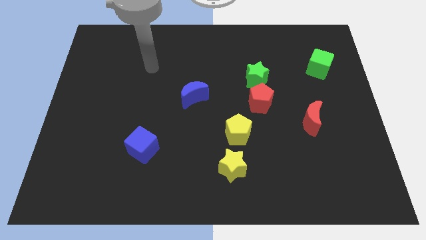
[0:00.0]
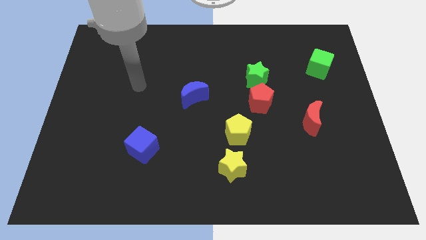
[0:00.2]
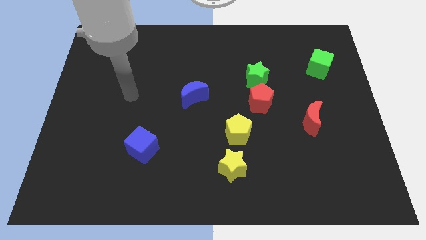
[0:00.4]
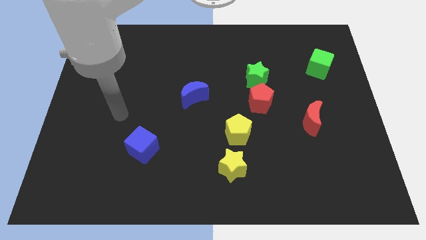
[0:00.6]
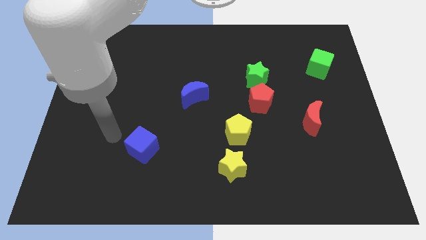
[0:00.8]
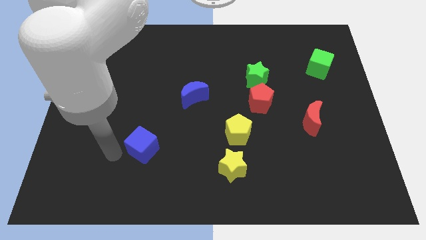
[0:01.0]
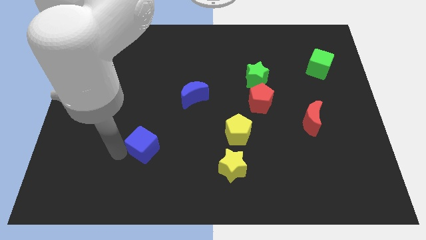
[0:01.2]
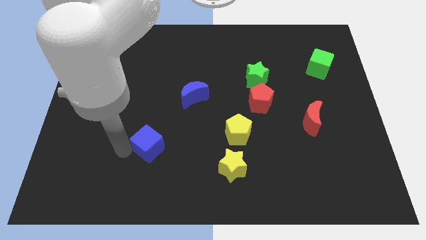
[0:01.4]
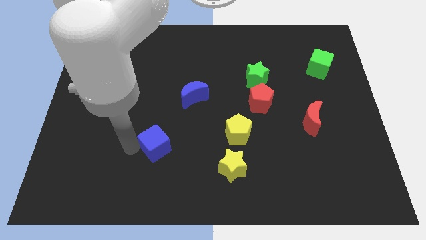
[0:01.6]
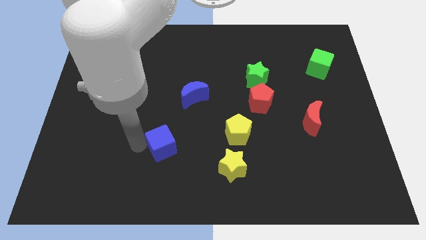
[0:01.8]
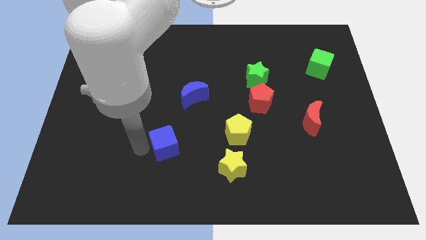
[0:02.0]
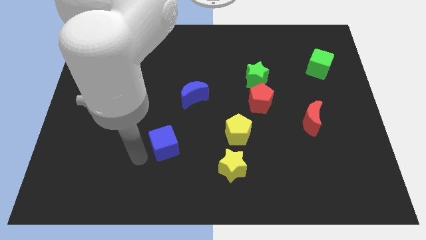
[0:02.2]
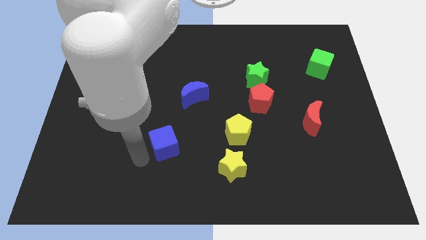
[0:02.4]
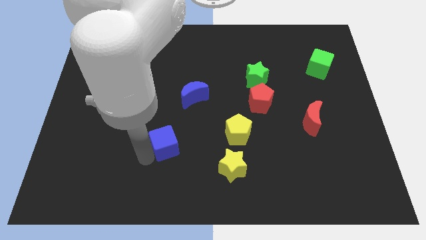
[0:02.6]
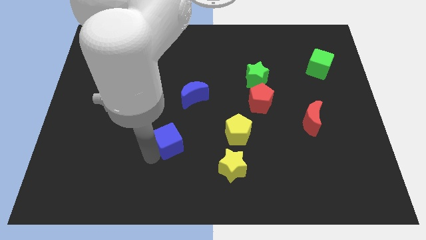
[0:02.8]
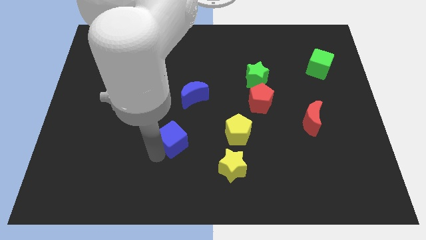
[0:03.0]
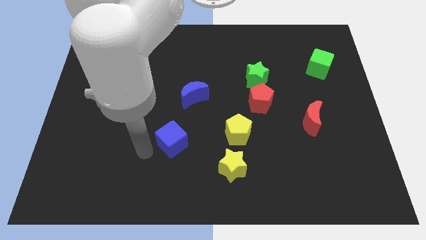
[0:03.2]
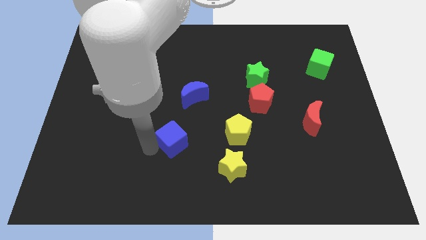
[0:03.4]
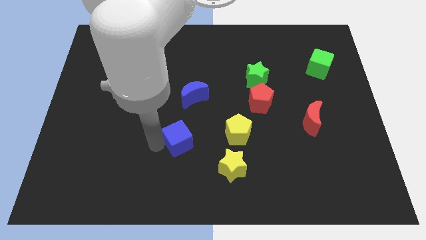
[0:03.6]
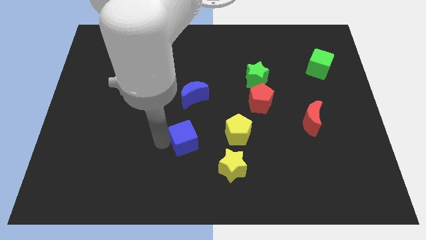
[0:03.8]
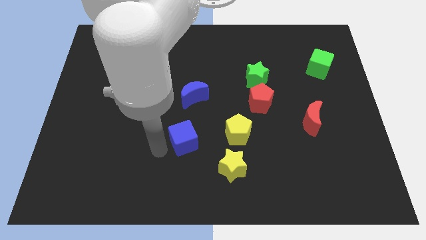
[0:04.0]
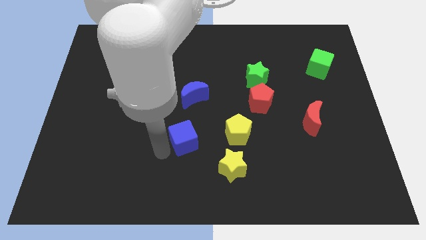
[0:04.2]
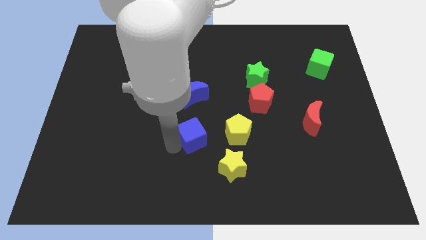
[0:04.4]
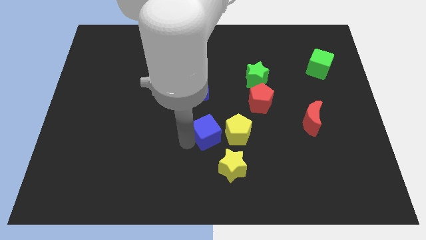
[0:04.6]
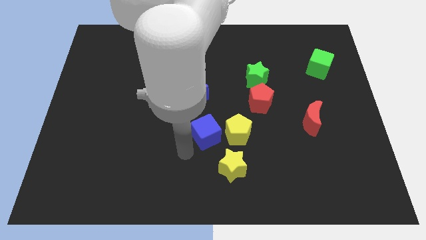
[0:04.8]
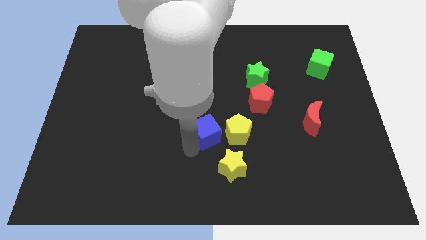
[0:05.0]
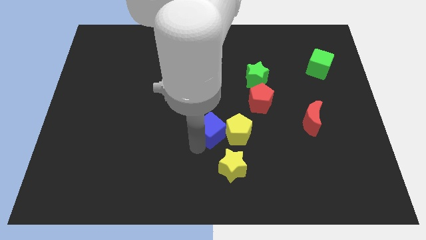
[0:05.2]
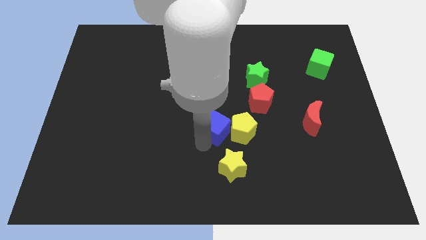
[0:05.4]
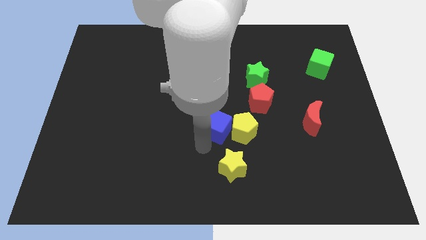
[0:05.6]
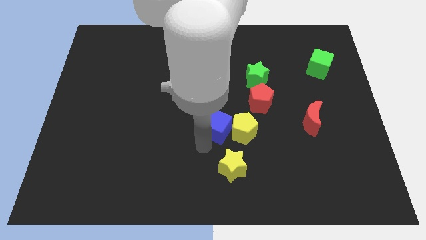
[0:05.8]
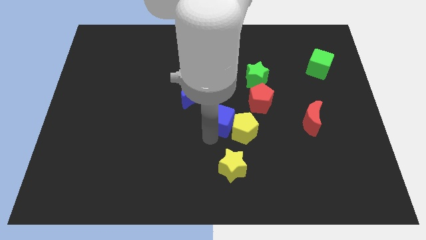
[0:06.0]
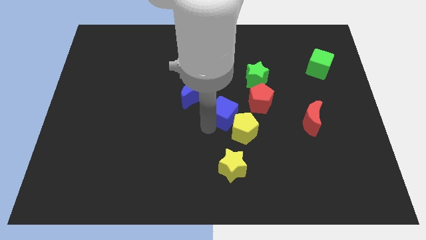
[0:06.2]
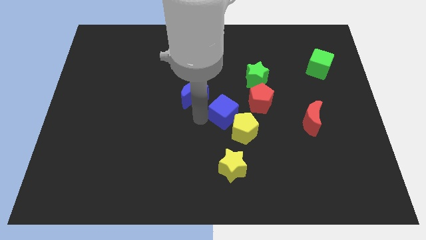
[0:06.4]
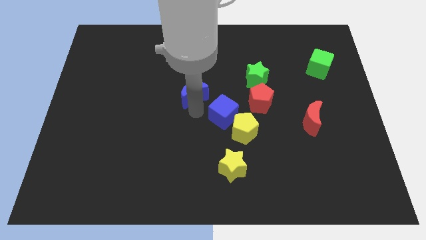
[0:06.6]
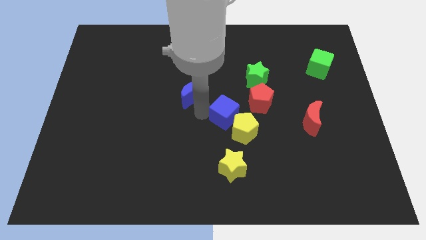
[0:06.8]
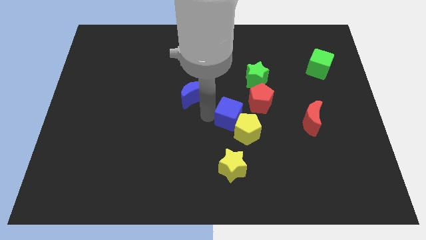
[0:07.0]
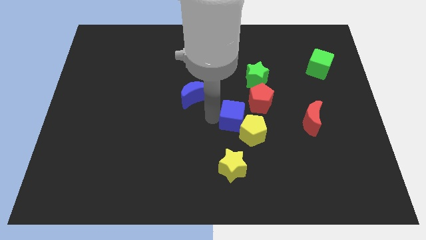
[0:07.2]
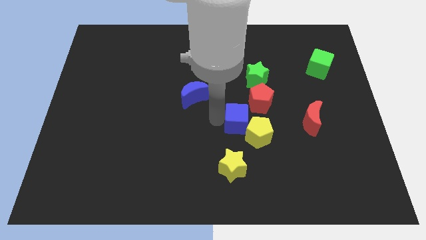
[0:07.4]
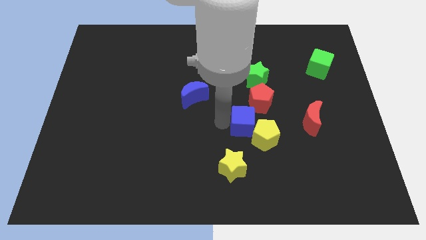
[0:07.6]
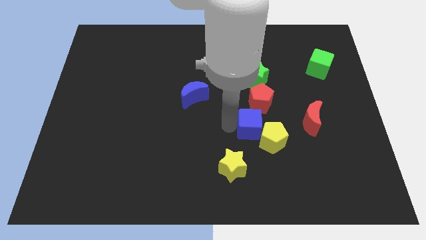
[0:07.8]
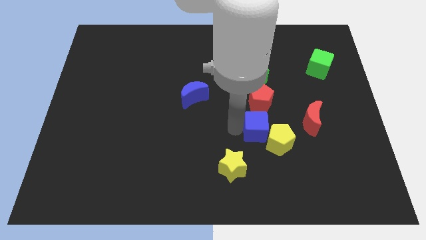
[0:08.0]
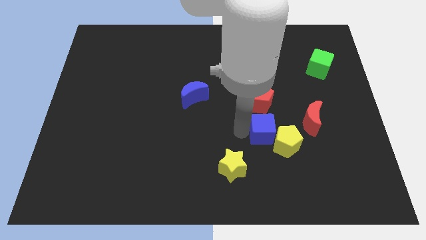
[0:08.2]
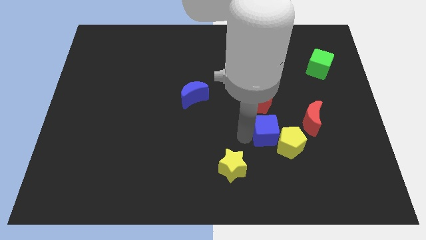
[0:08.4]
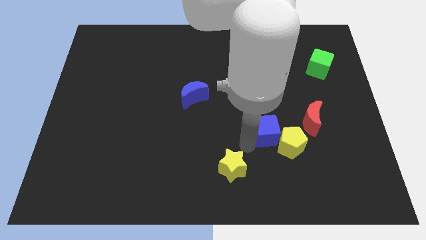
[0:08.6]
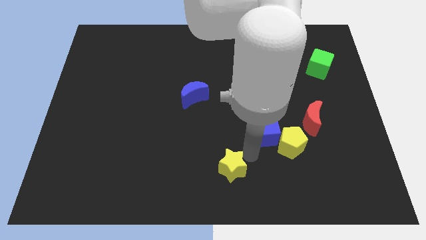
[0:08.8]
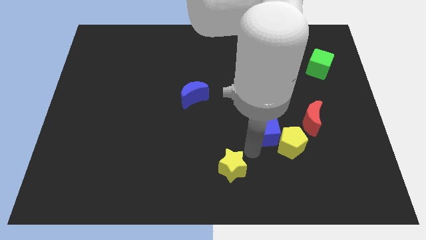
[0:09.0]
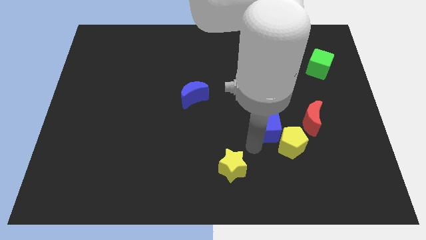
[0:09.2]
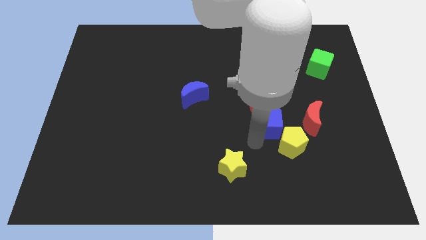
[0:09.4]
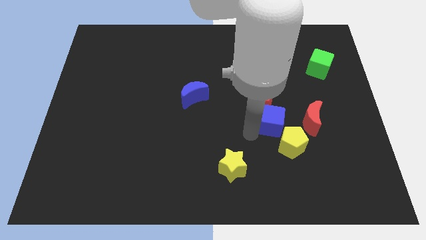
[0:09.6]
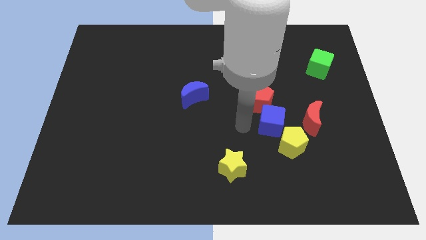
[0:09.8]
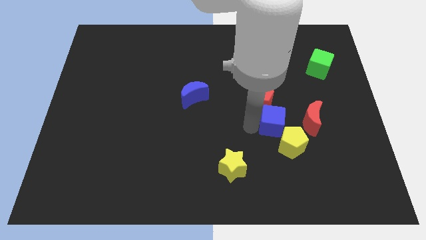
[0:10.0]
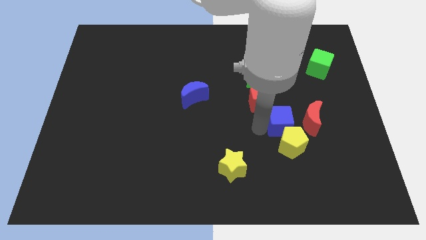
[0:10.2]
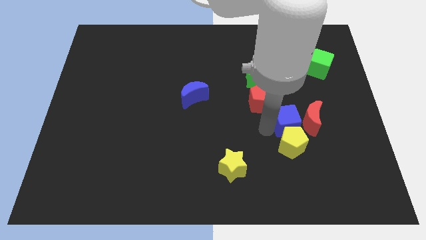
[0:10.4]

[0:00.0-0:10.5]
move the blue cube towards the red moon

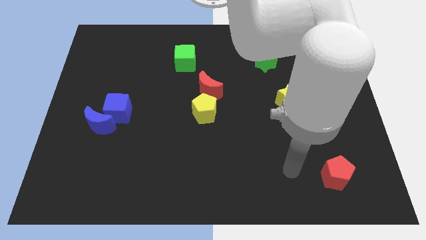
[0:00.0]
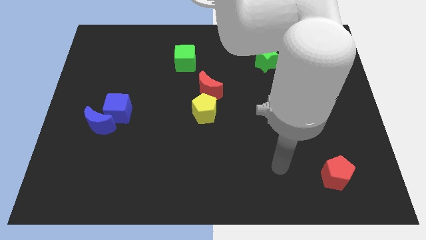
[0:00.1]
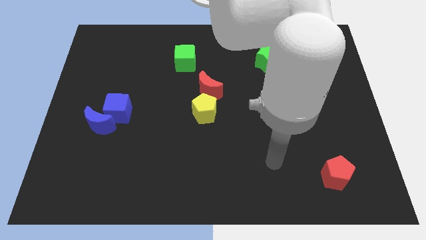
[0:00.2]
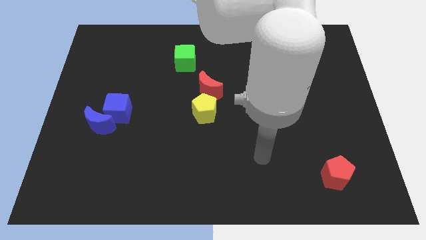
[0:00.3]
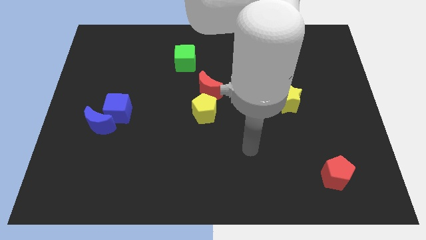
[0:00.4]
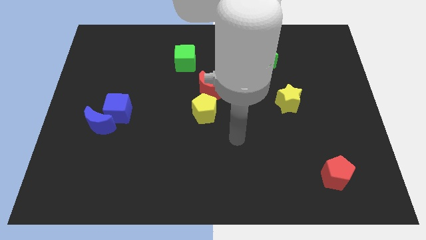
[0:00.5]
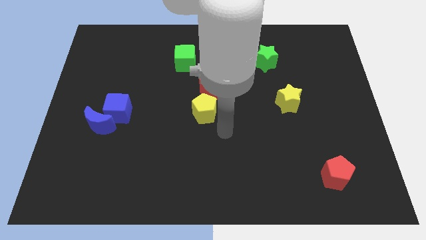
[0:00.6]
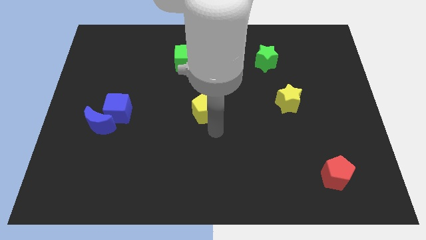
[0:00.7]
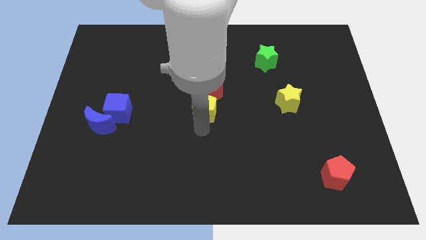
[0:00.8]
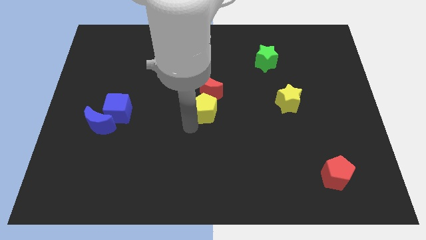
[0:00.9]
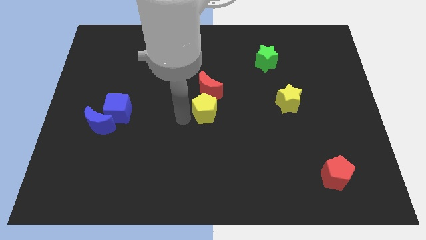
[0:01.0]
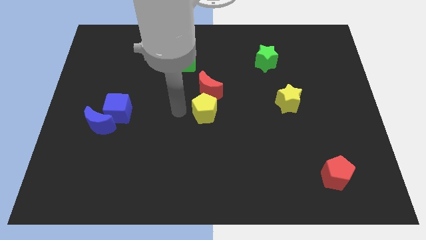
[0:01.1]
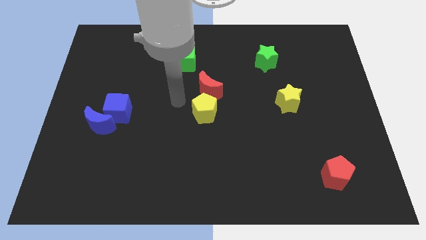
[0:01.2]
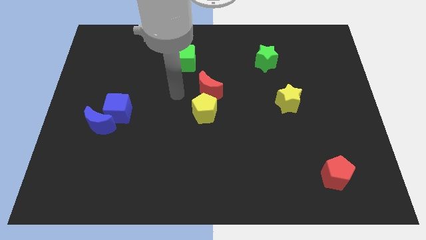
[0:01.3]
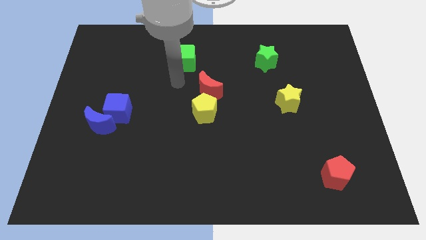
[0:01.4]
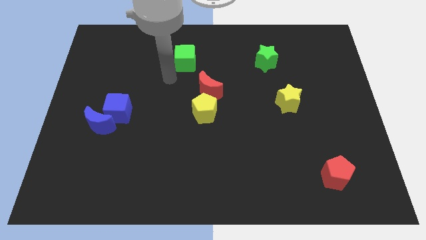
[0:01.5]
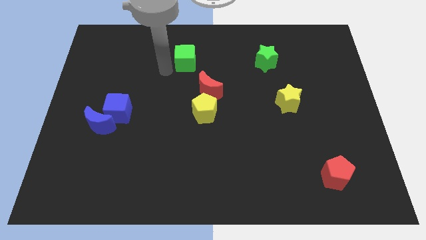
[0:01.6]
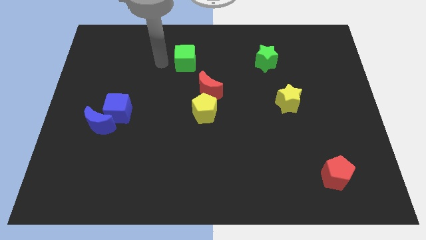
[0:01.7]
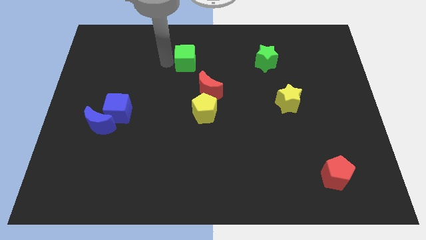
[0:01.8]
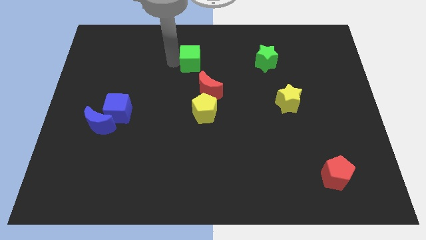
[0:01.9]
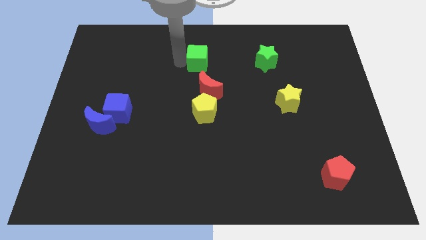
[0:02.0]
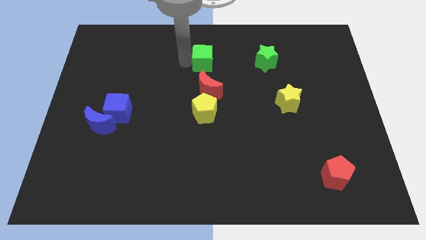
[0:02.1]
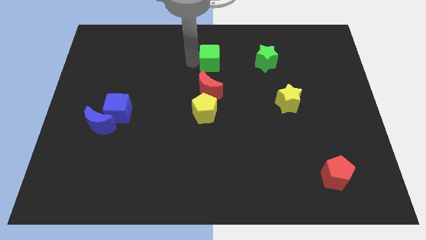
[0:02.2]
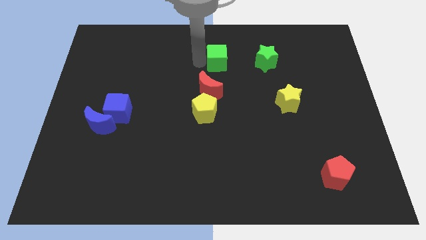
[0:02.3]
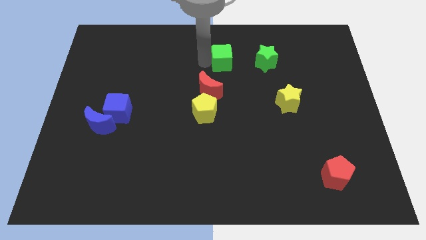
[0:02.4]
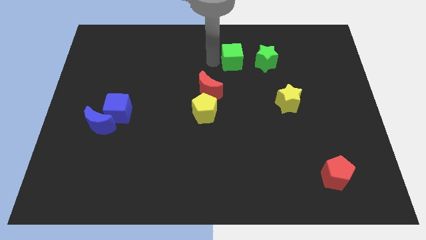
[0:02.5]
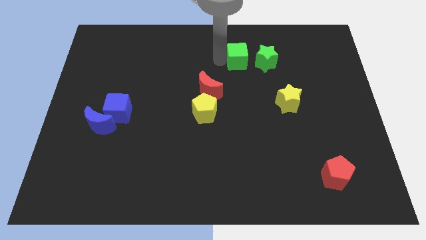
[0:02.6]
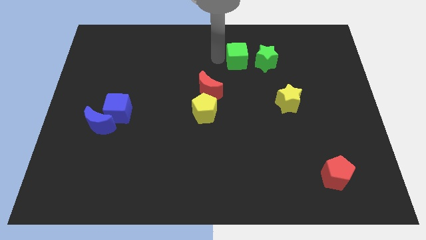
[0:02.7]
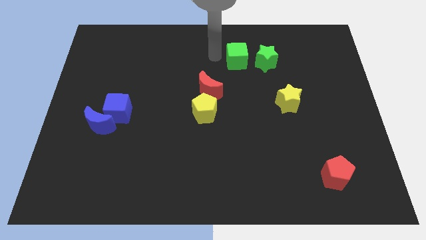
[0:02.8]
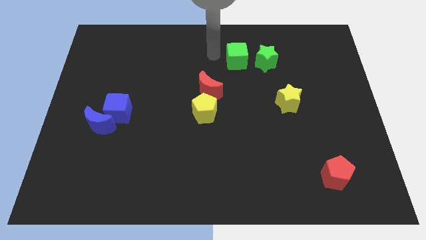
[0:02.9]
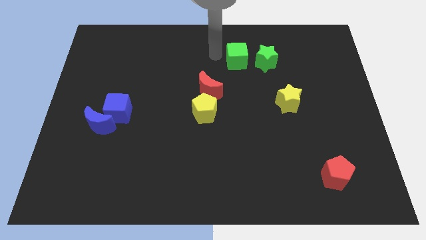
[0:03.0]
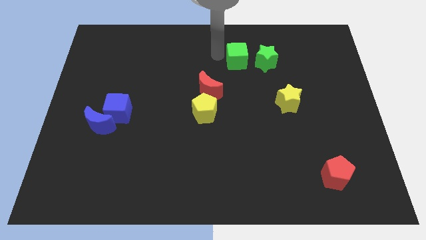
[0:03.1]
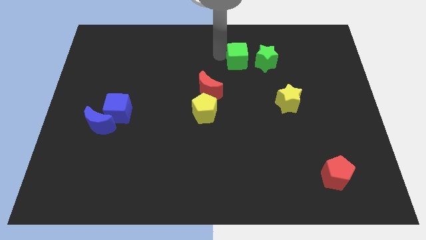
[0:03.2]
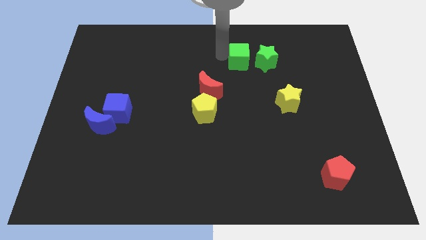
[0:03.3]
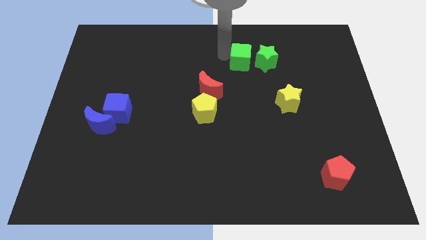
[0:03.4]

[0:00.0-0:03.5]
push the green cube next to the green star
